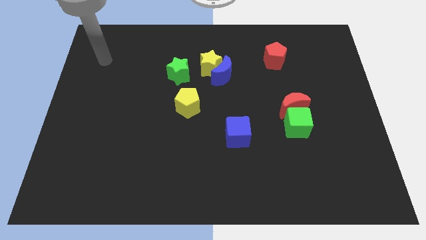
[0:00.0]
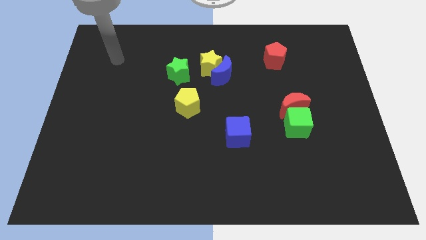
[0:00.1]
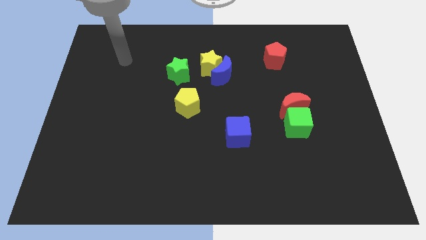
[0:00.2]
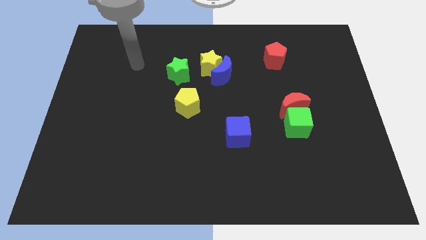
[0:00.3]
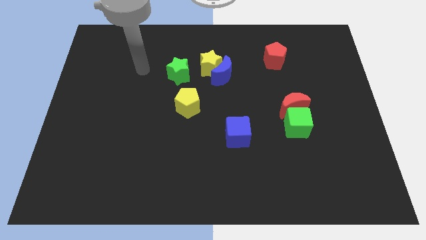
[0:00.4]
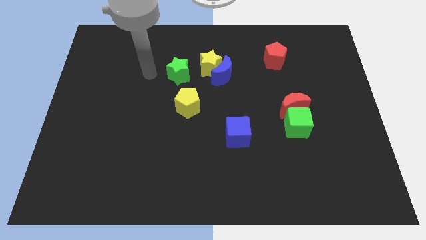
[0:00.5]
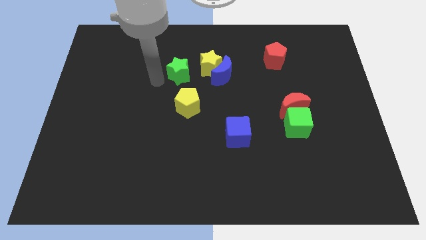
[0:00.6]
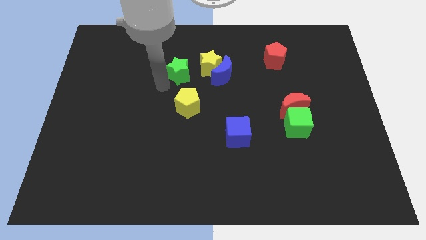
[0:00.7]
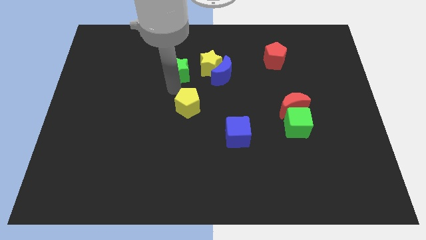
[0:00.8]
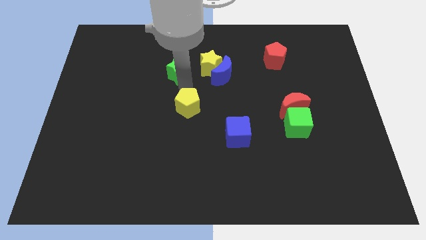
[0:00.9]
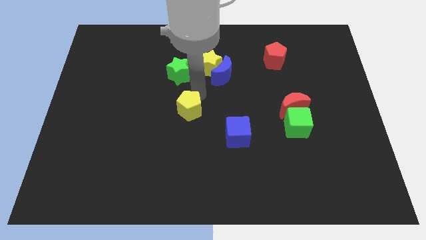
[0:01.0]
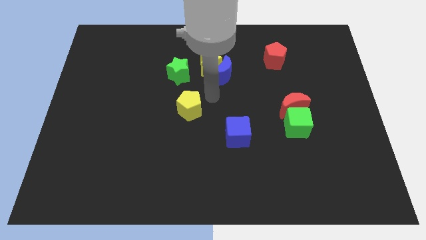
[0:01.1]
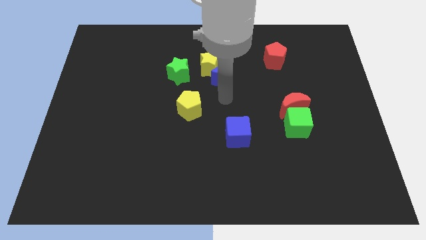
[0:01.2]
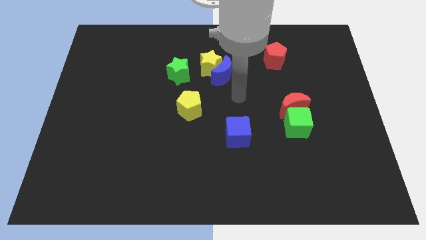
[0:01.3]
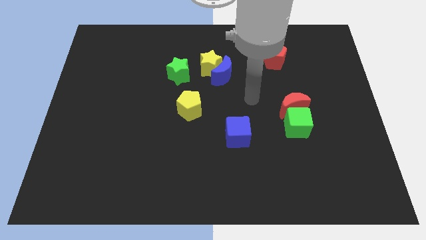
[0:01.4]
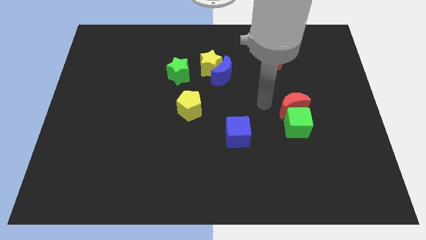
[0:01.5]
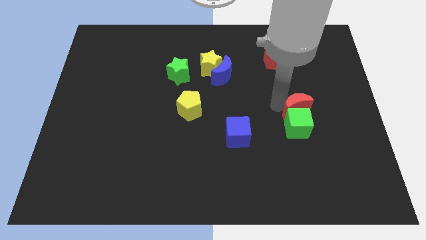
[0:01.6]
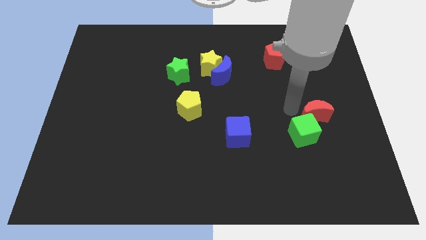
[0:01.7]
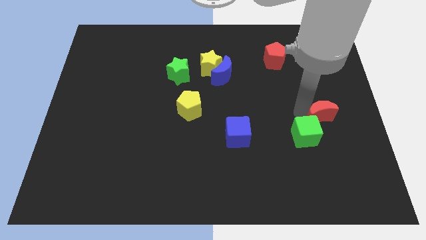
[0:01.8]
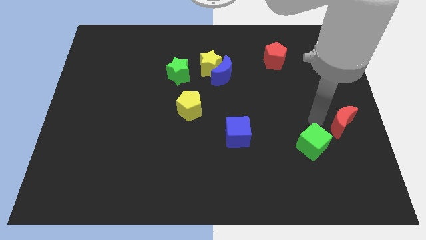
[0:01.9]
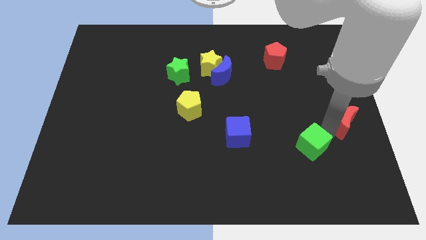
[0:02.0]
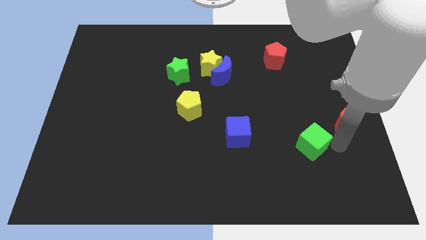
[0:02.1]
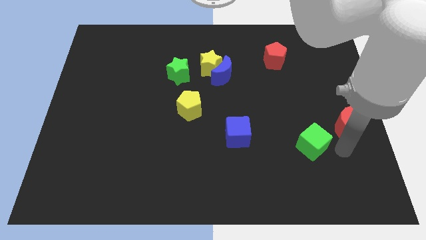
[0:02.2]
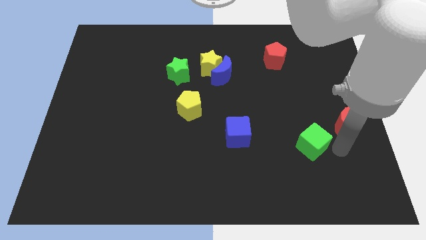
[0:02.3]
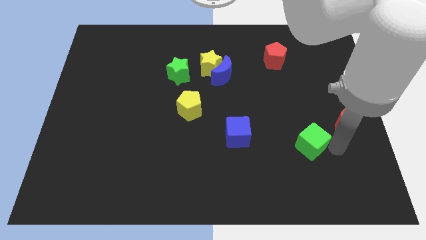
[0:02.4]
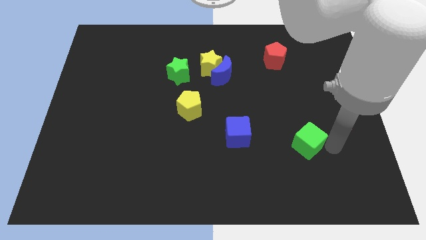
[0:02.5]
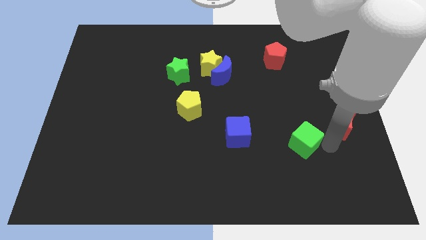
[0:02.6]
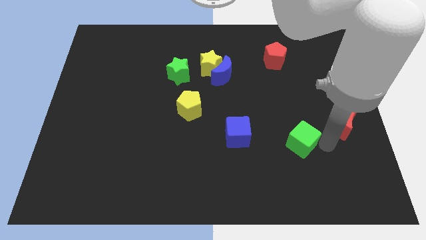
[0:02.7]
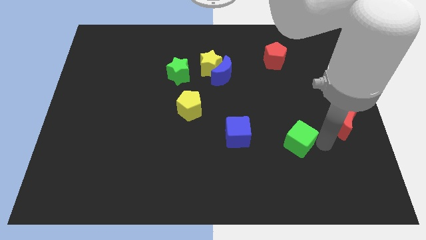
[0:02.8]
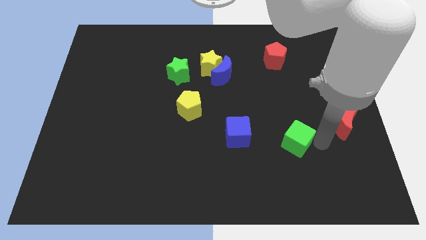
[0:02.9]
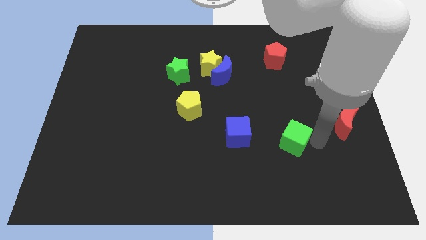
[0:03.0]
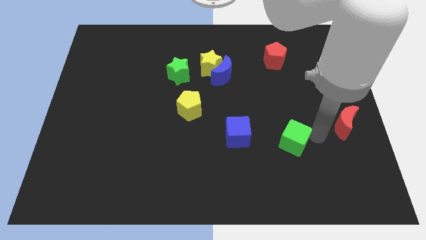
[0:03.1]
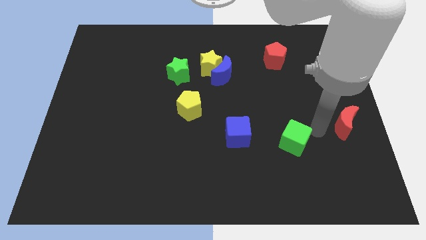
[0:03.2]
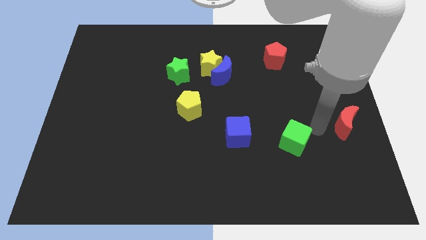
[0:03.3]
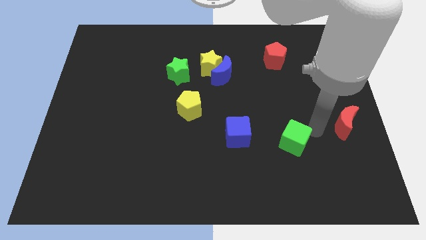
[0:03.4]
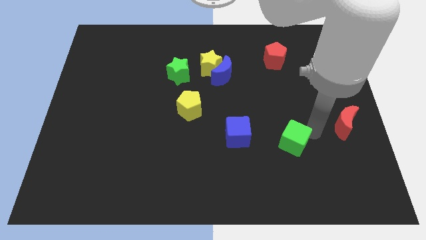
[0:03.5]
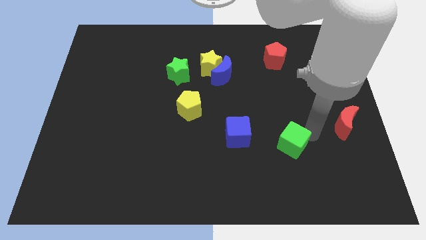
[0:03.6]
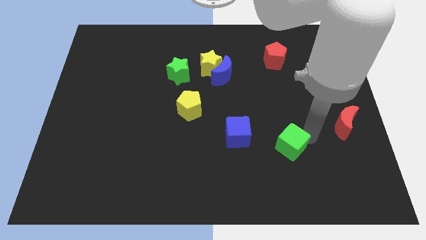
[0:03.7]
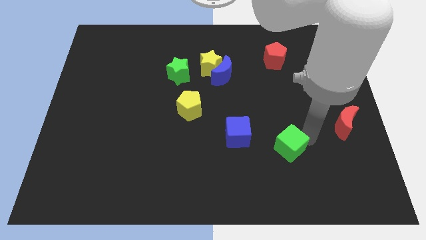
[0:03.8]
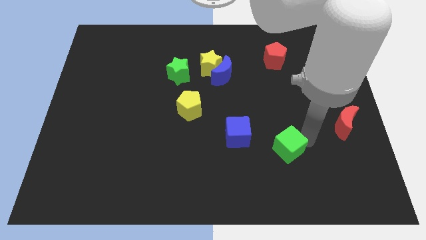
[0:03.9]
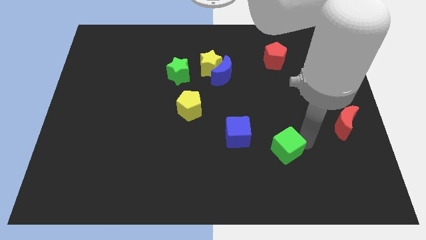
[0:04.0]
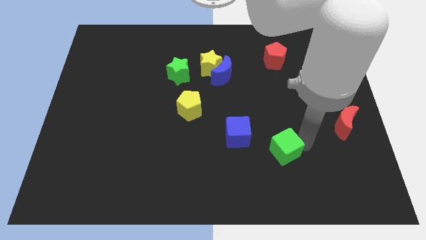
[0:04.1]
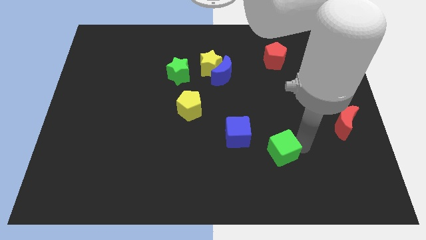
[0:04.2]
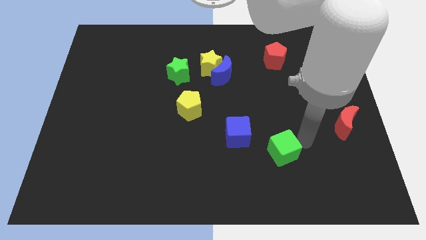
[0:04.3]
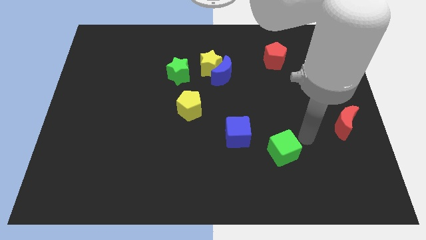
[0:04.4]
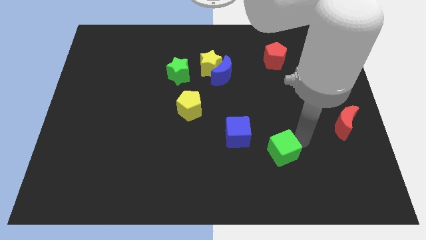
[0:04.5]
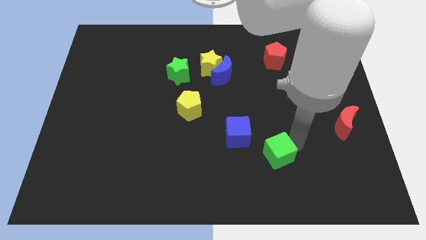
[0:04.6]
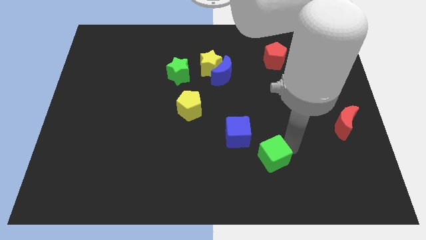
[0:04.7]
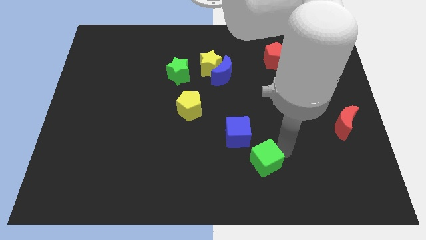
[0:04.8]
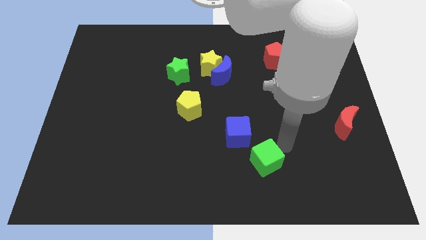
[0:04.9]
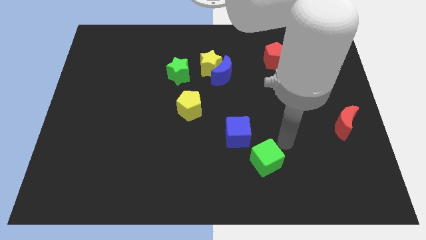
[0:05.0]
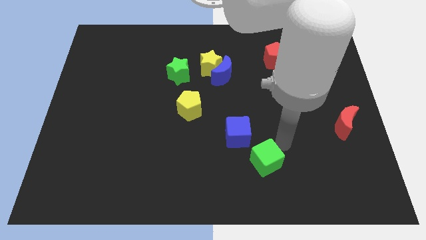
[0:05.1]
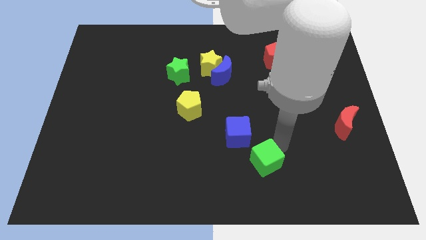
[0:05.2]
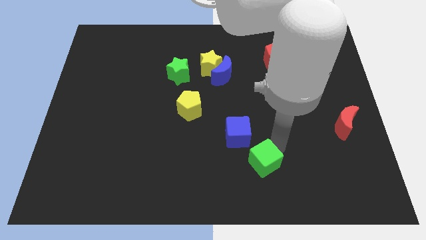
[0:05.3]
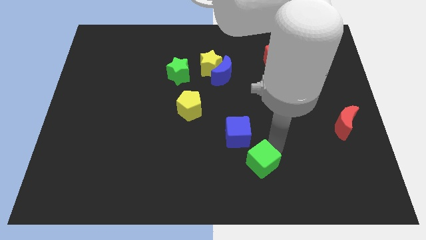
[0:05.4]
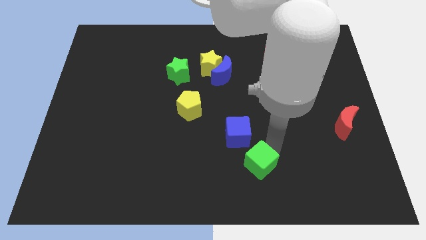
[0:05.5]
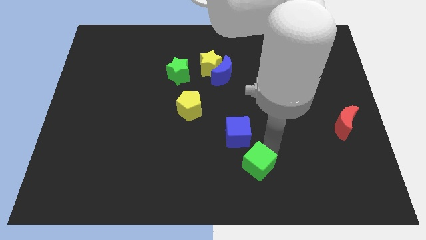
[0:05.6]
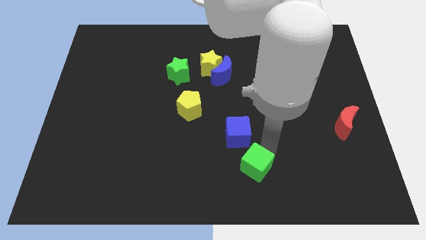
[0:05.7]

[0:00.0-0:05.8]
move the green cube to the bottom side

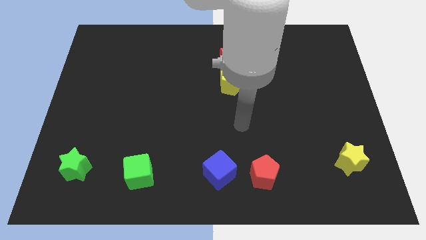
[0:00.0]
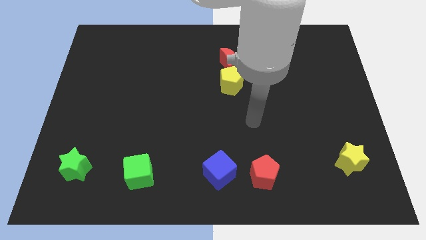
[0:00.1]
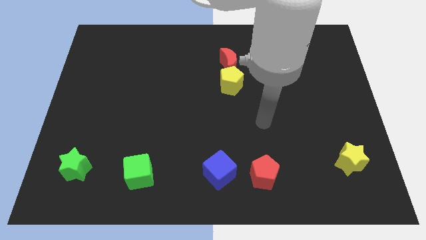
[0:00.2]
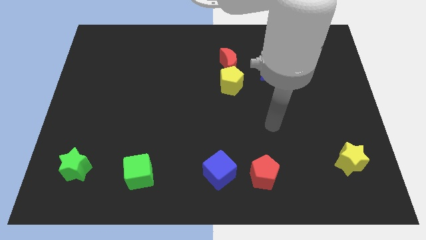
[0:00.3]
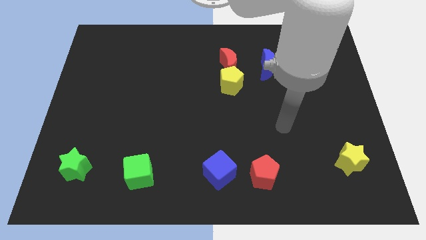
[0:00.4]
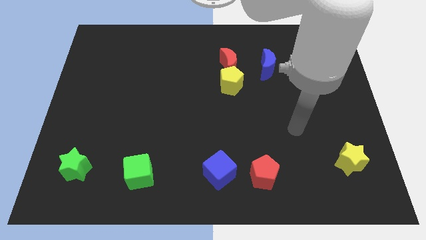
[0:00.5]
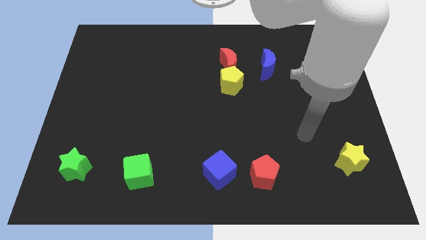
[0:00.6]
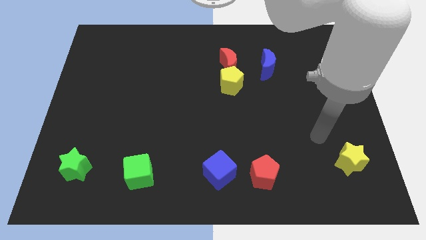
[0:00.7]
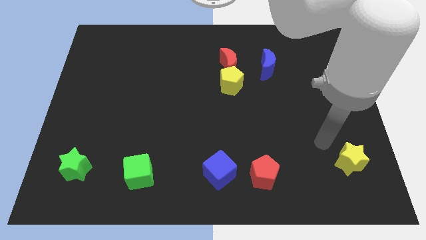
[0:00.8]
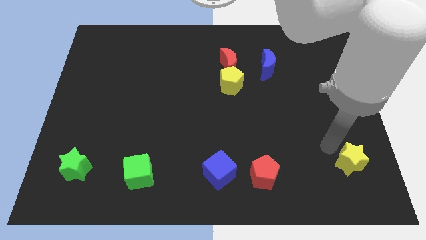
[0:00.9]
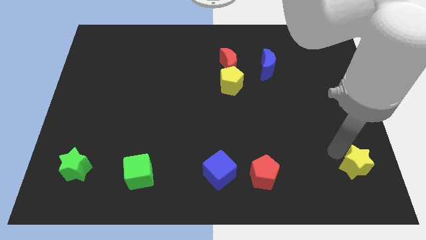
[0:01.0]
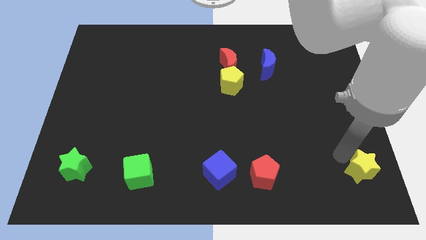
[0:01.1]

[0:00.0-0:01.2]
move the yellow star to the bottom right
